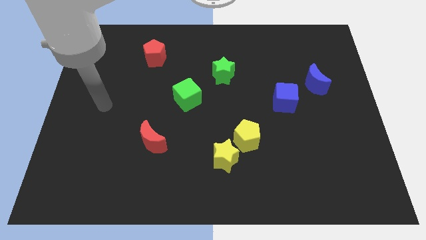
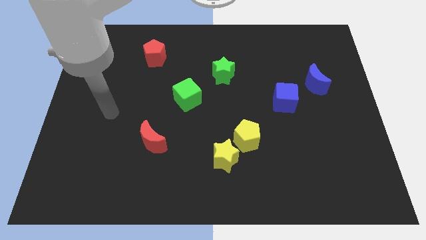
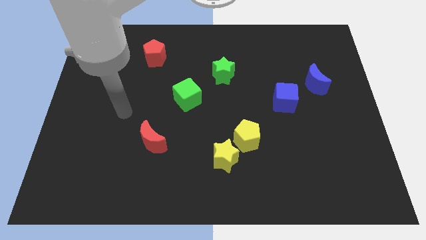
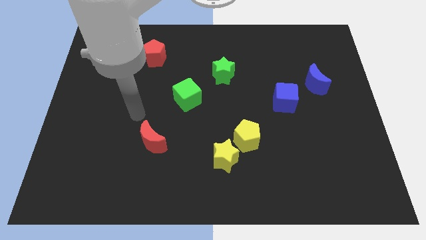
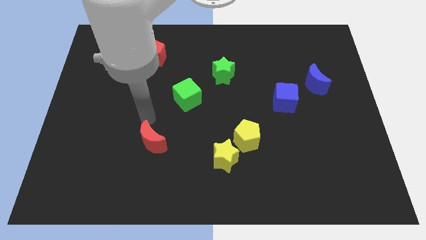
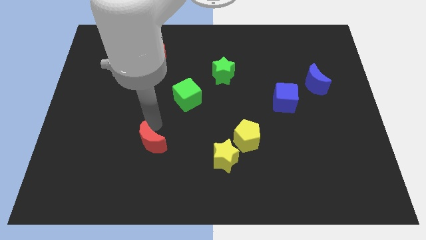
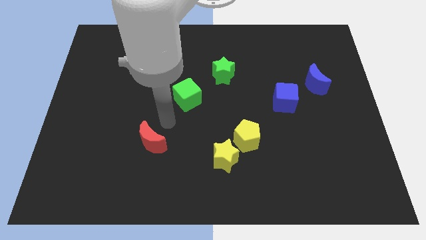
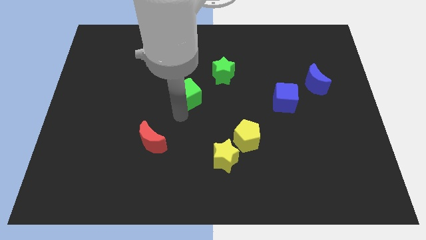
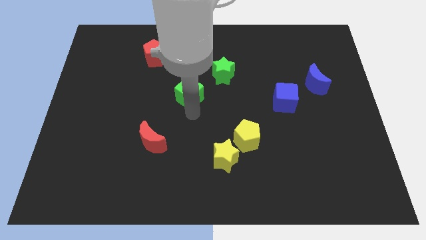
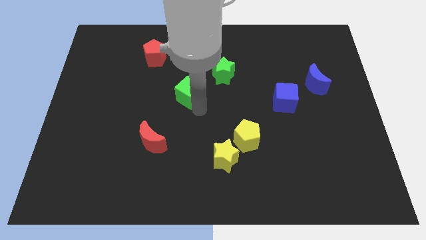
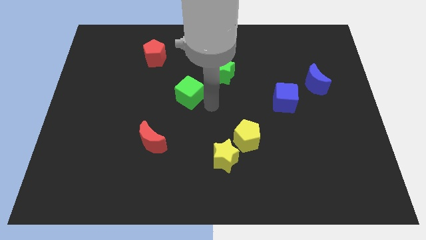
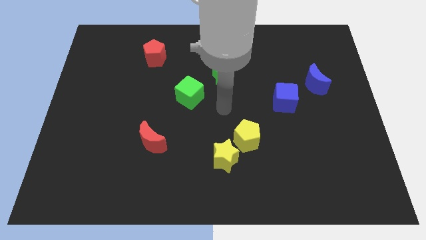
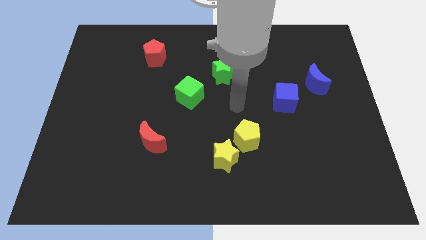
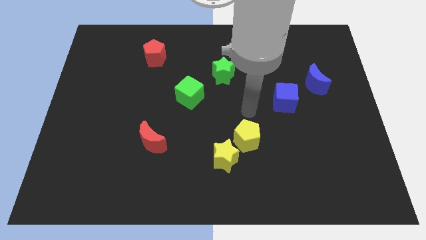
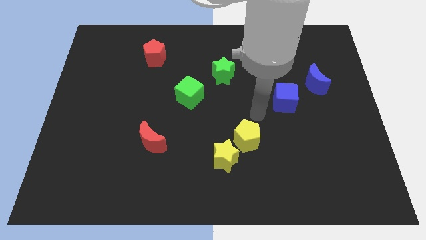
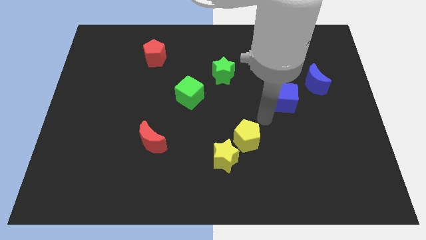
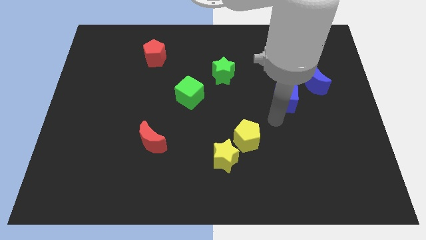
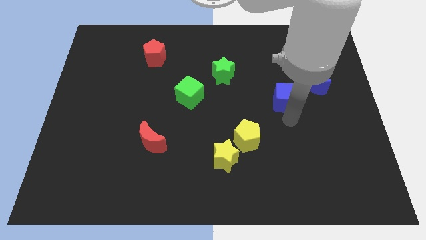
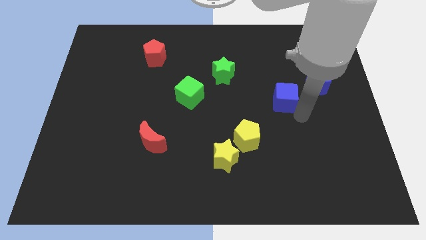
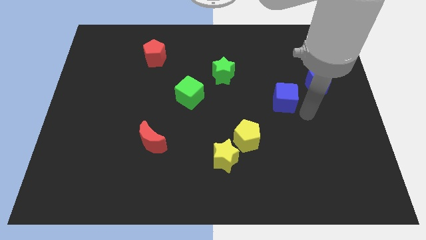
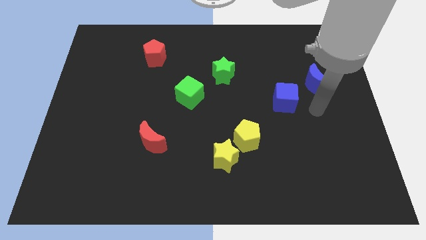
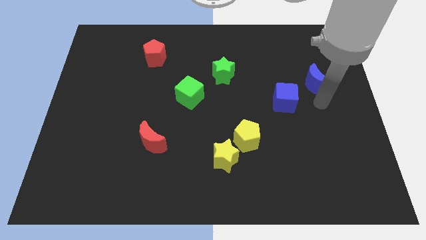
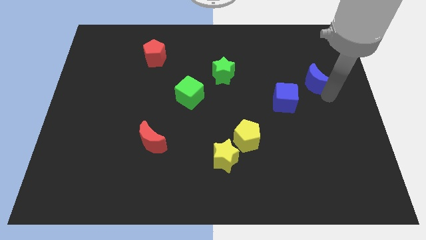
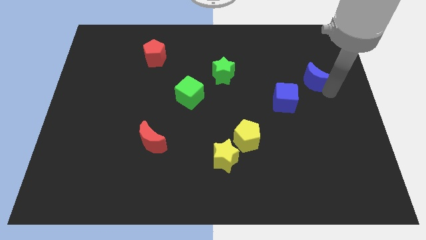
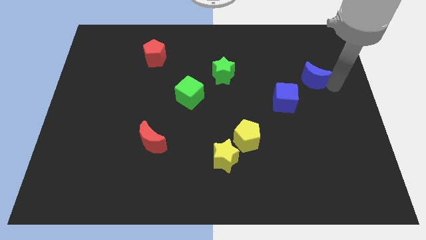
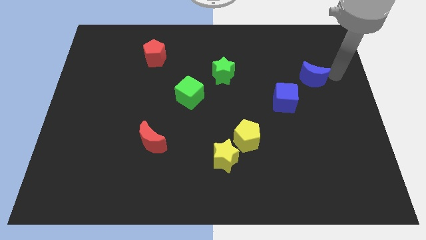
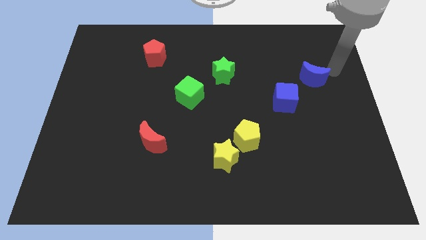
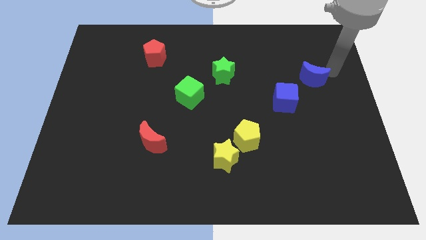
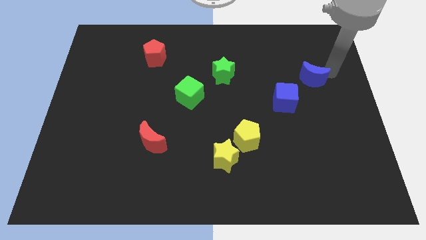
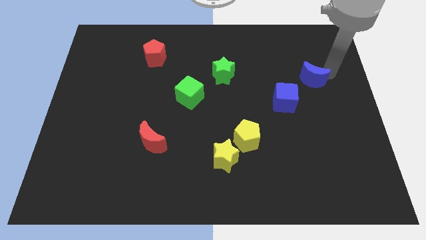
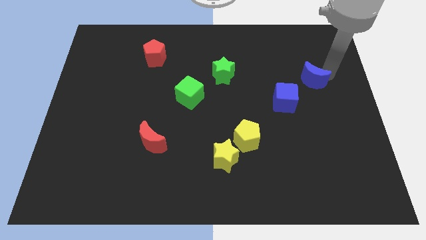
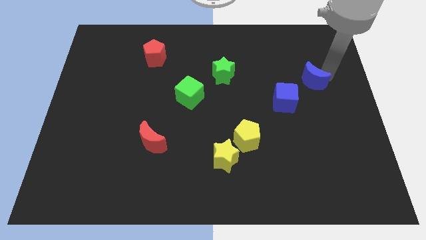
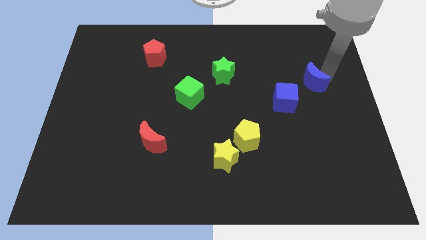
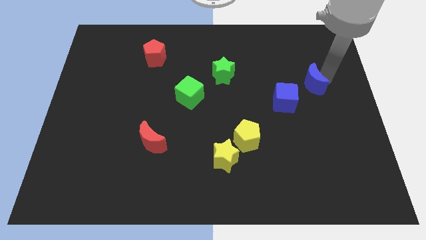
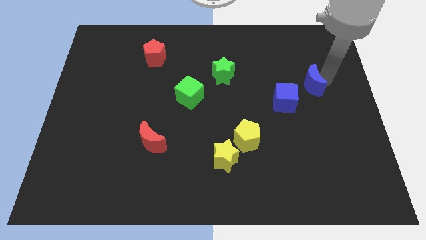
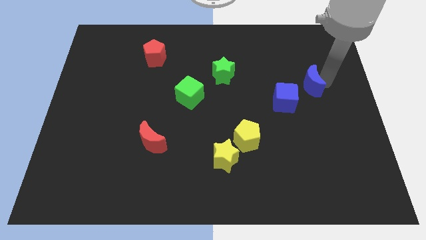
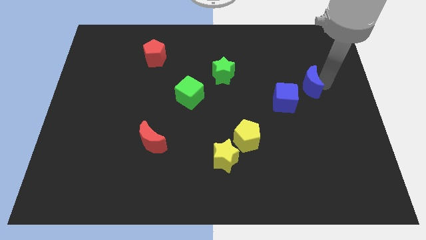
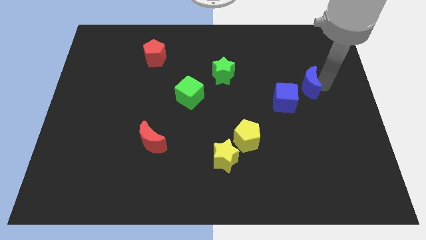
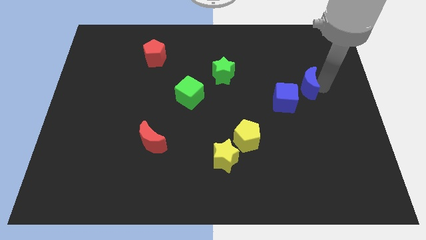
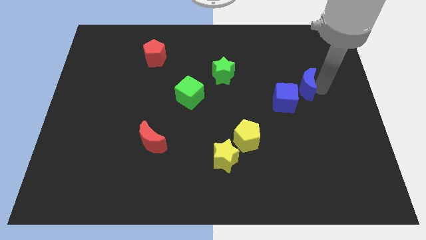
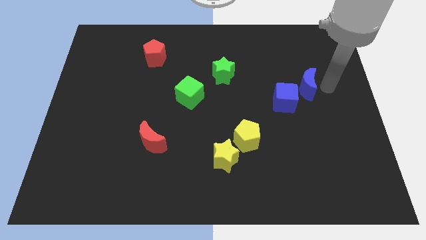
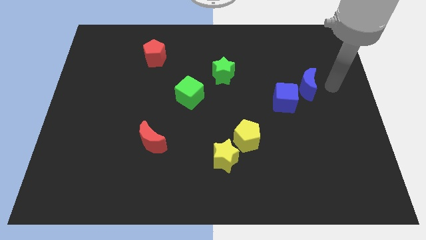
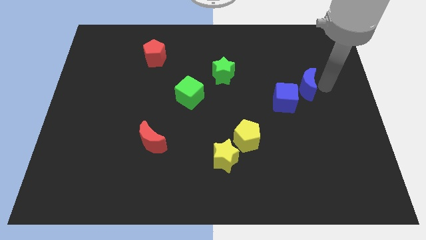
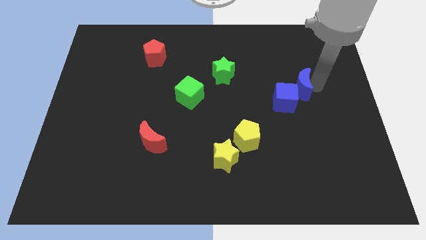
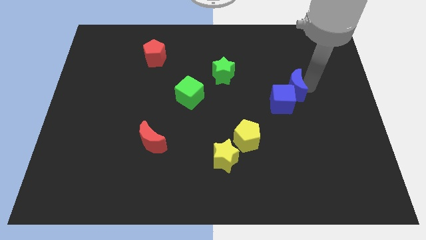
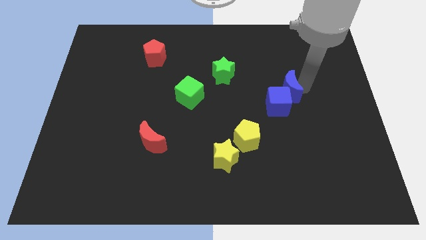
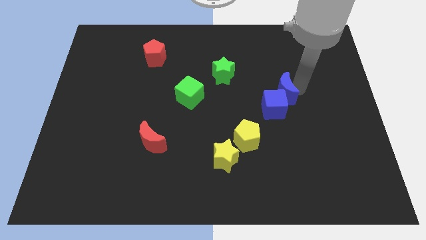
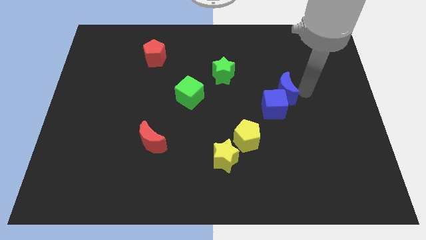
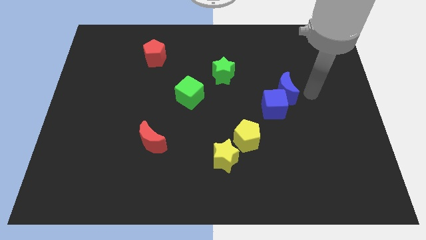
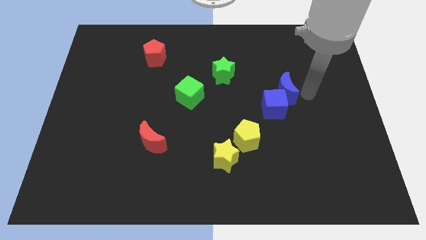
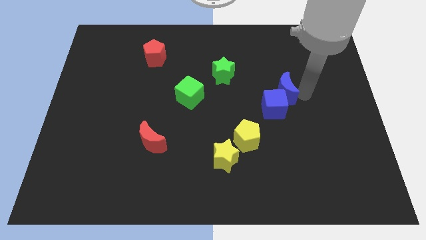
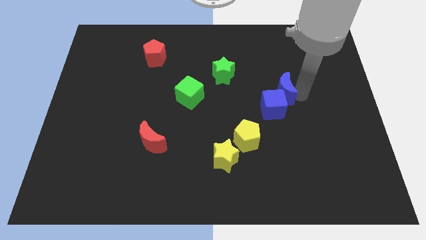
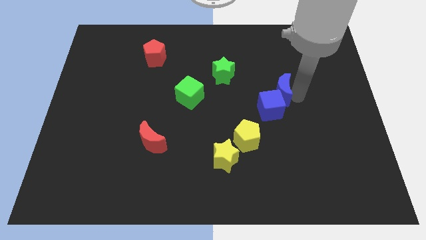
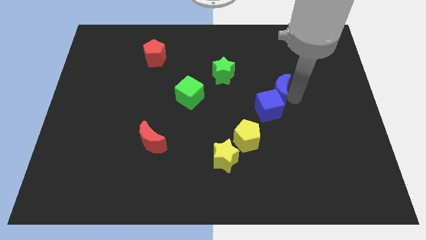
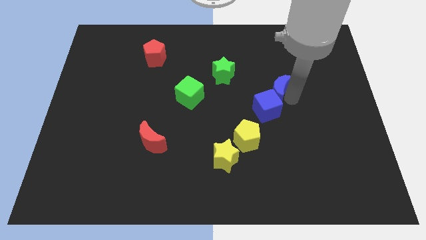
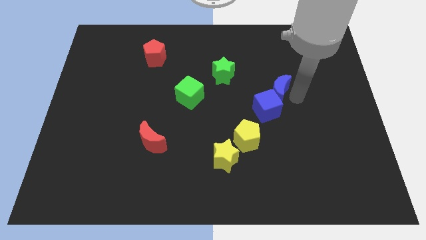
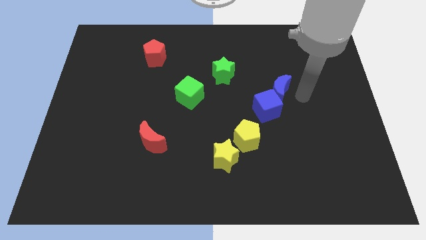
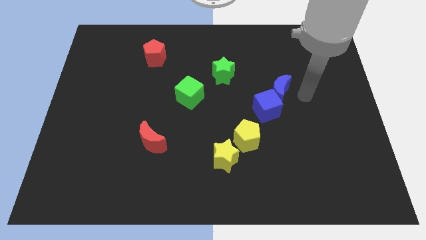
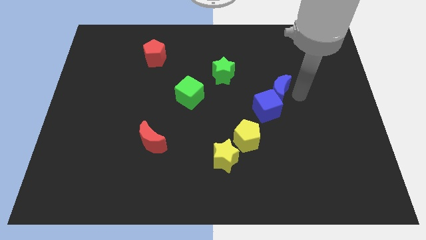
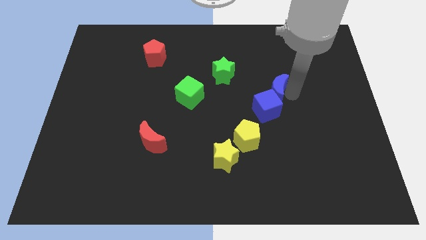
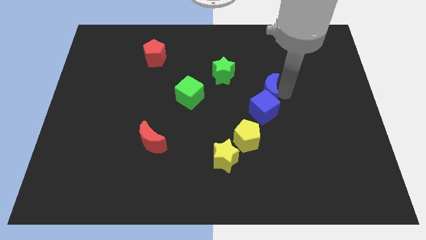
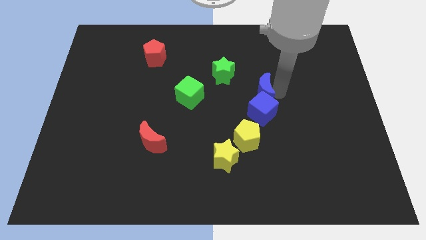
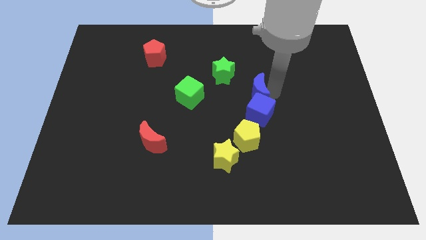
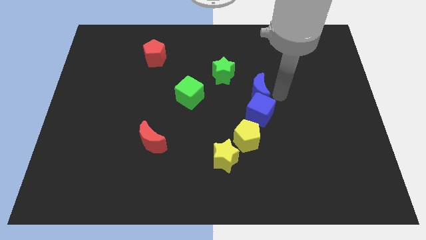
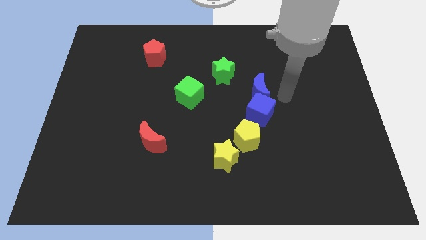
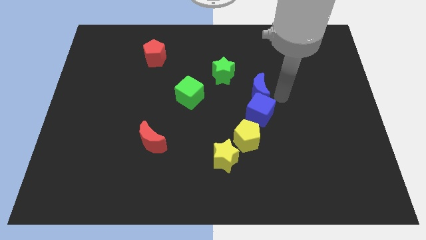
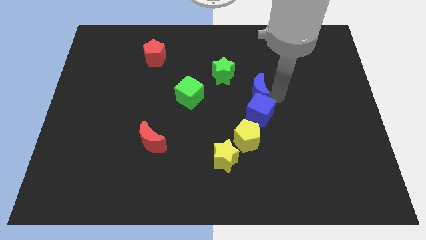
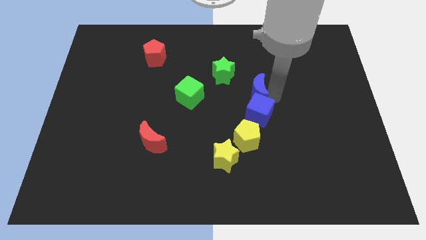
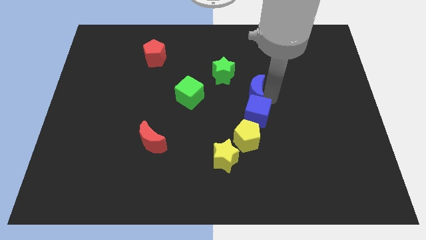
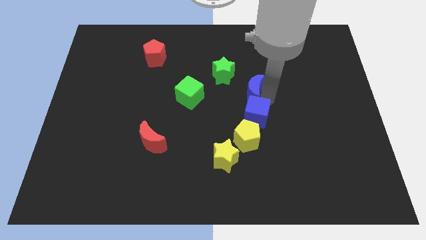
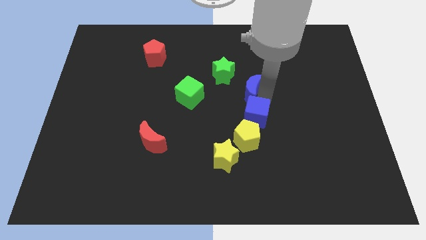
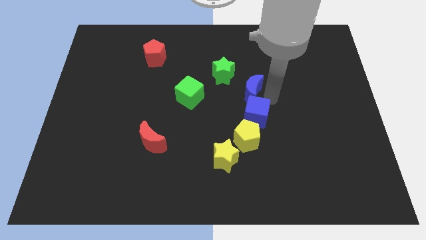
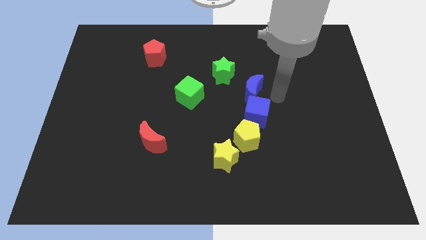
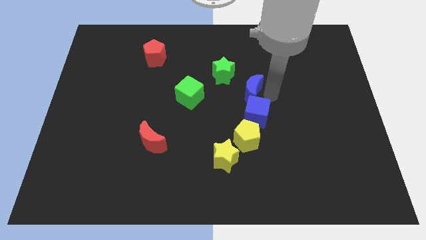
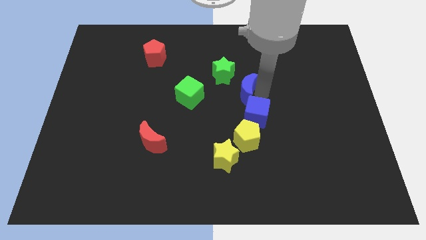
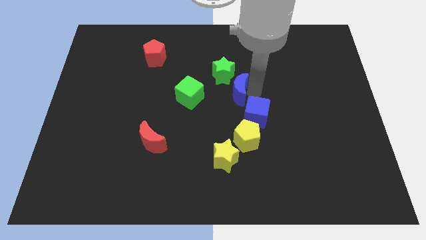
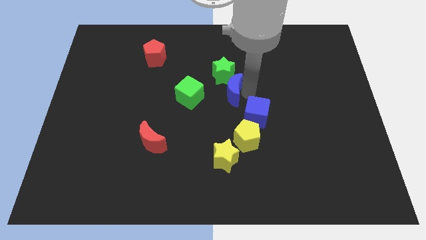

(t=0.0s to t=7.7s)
move the blue moon to the left
